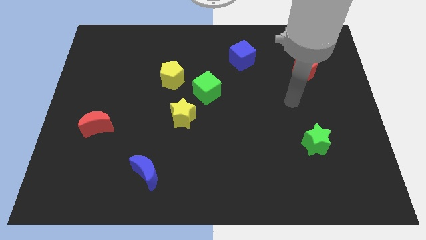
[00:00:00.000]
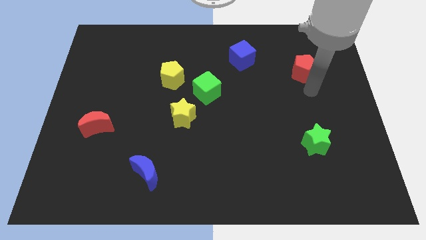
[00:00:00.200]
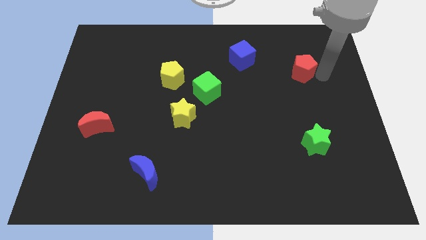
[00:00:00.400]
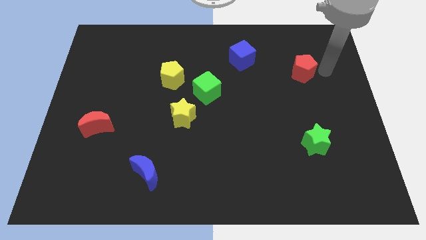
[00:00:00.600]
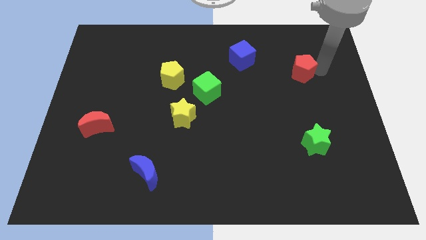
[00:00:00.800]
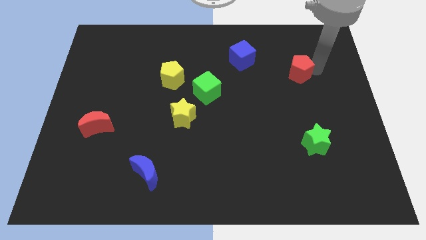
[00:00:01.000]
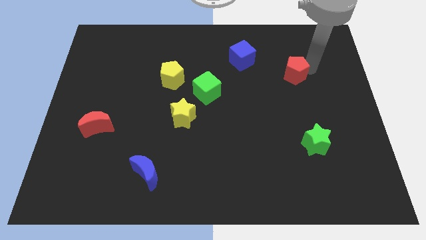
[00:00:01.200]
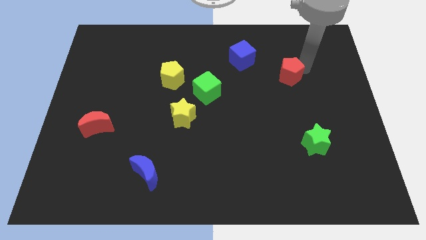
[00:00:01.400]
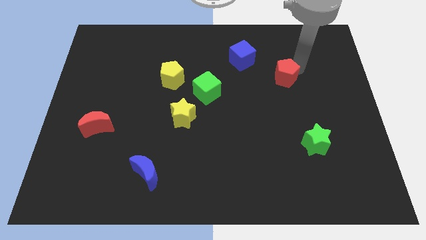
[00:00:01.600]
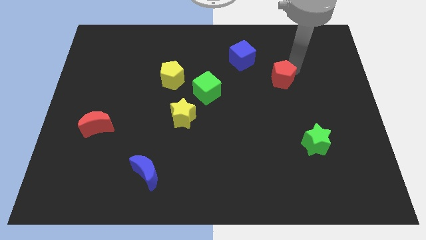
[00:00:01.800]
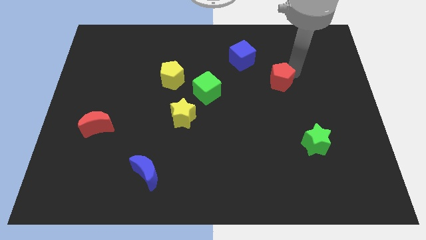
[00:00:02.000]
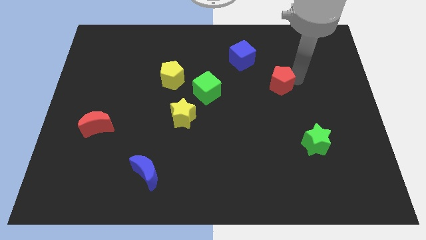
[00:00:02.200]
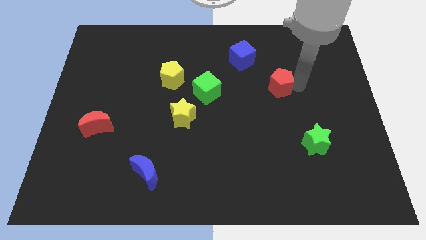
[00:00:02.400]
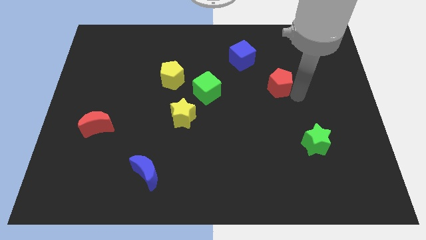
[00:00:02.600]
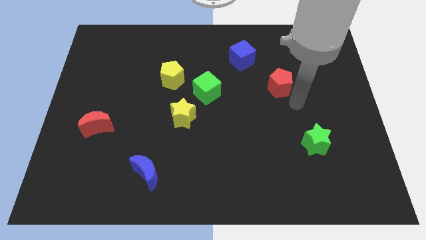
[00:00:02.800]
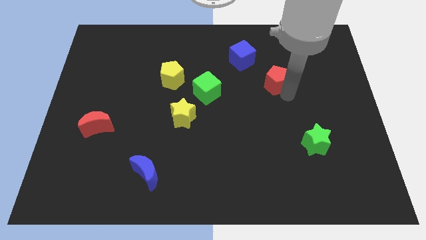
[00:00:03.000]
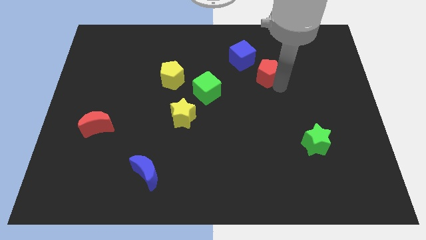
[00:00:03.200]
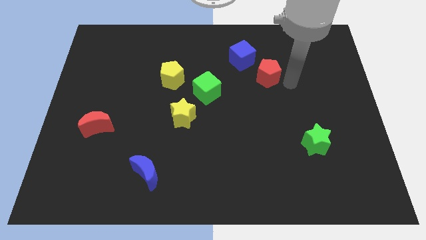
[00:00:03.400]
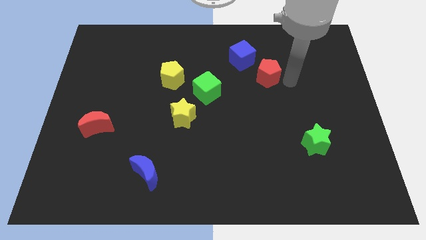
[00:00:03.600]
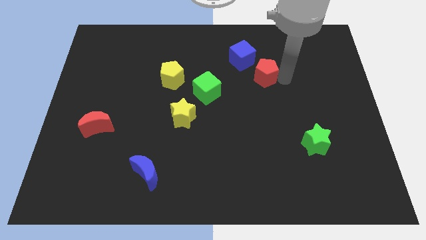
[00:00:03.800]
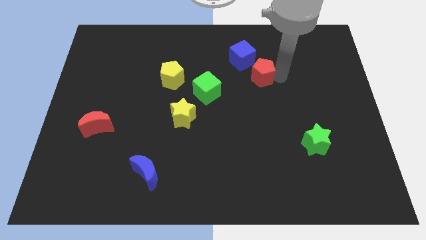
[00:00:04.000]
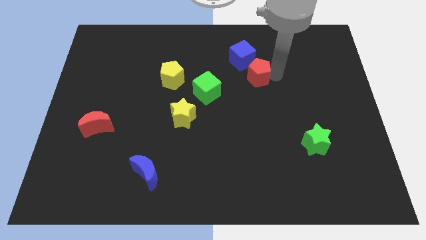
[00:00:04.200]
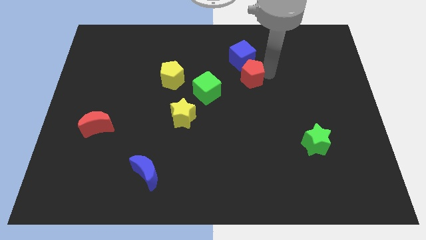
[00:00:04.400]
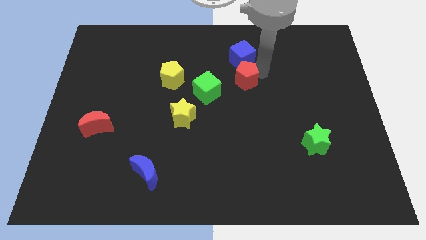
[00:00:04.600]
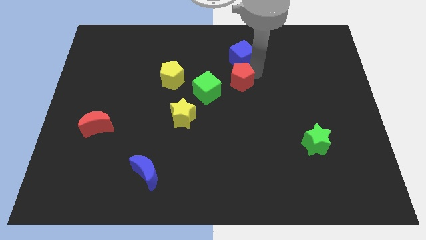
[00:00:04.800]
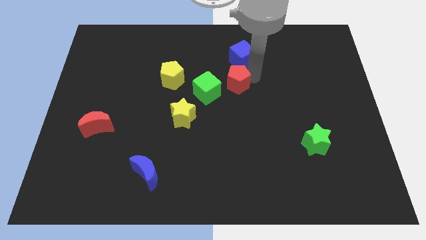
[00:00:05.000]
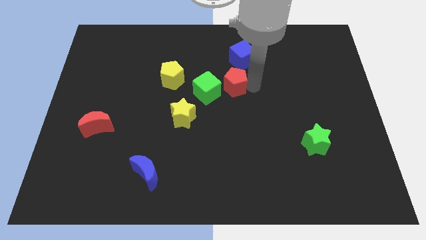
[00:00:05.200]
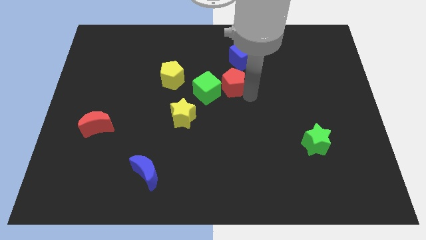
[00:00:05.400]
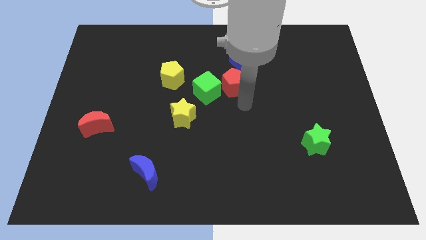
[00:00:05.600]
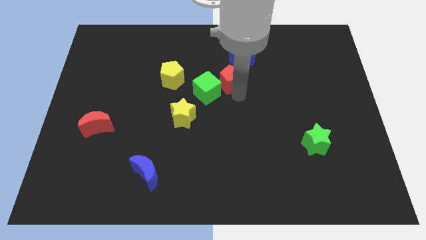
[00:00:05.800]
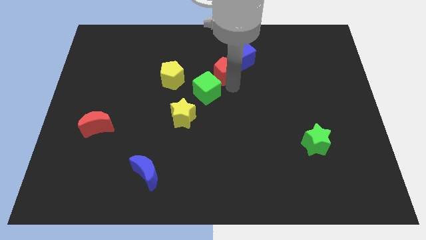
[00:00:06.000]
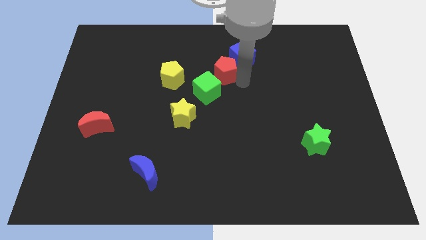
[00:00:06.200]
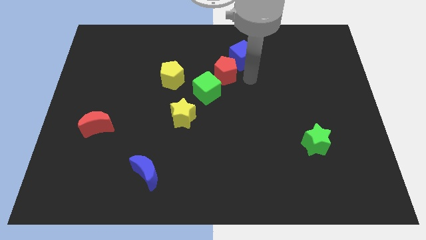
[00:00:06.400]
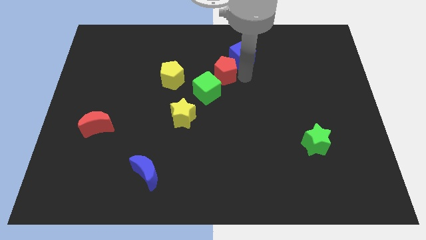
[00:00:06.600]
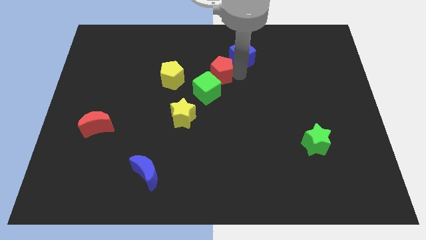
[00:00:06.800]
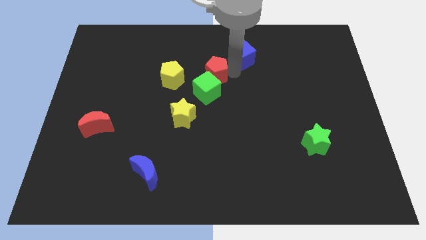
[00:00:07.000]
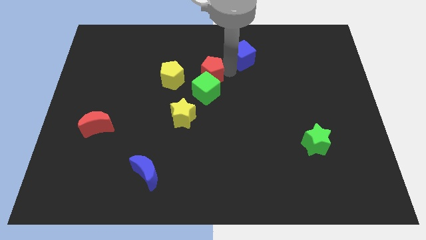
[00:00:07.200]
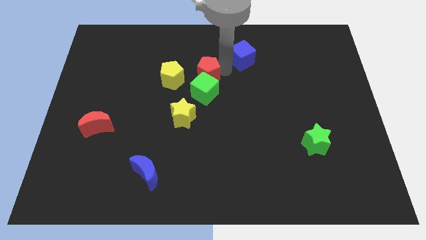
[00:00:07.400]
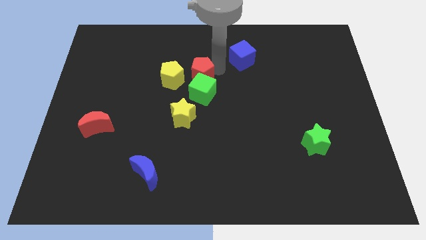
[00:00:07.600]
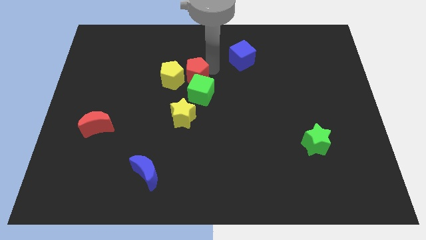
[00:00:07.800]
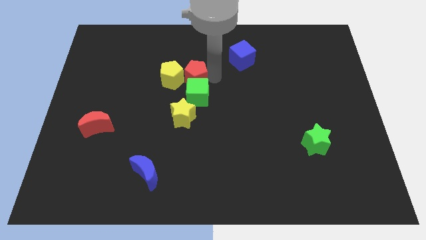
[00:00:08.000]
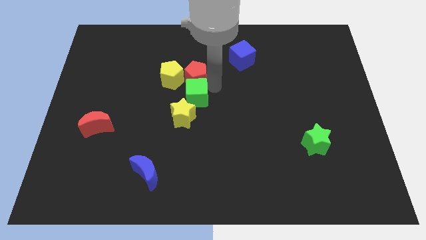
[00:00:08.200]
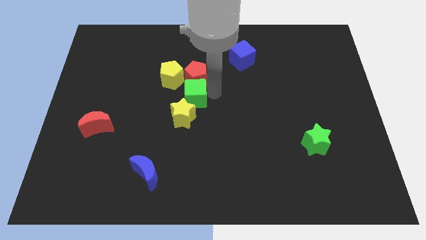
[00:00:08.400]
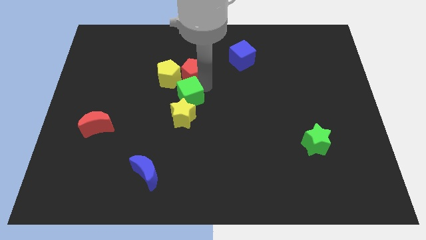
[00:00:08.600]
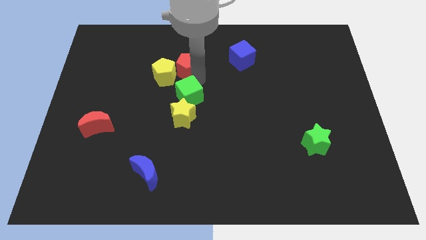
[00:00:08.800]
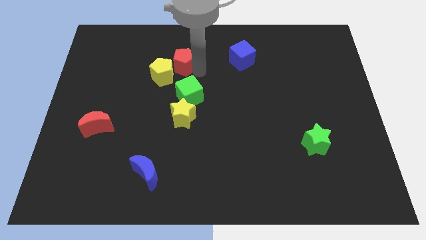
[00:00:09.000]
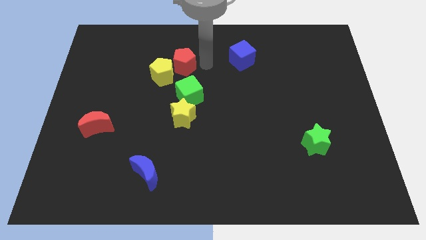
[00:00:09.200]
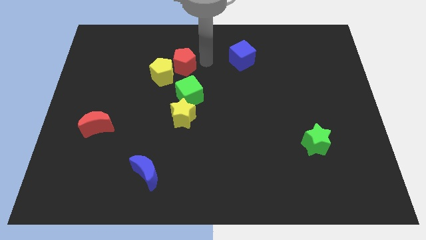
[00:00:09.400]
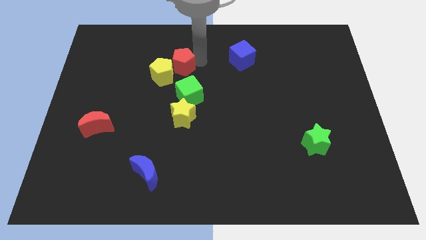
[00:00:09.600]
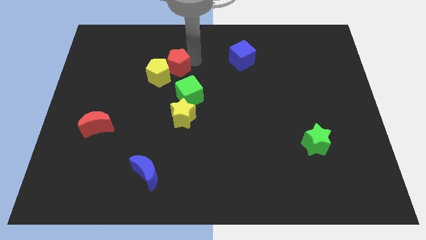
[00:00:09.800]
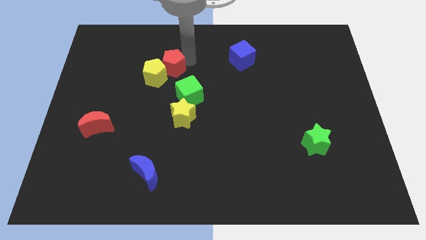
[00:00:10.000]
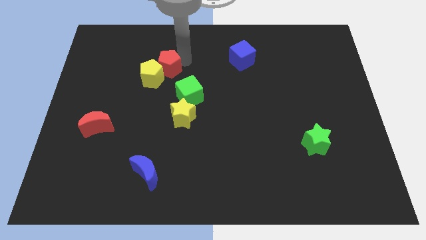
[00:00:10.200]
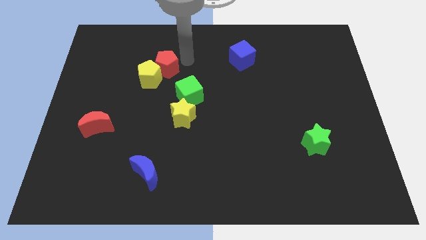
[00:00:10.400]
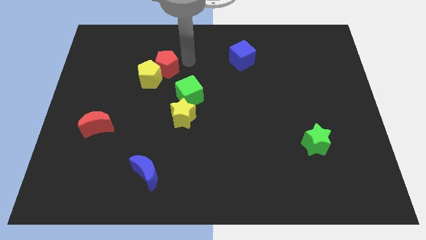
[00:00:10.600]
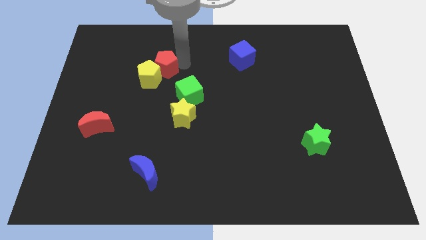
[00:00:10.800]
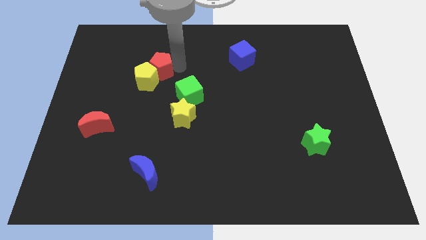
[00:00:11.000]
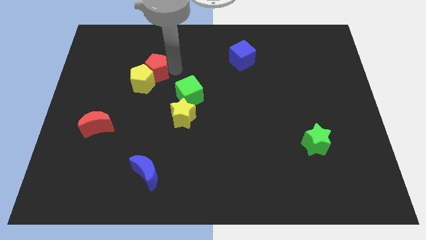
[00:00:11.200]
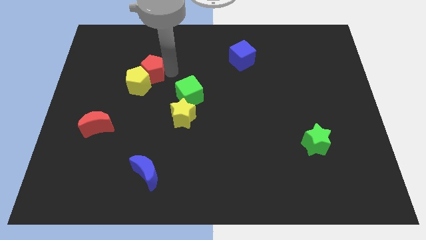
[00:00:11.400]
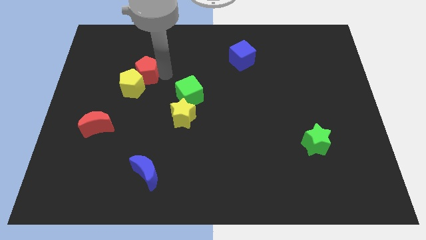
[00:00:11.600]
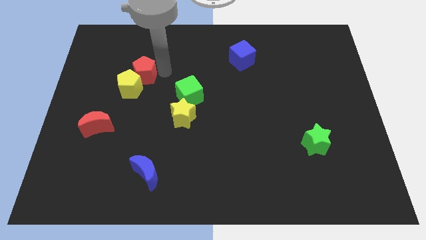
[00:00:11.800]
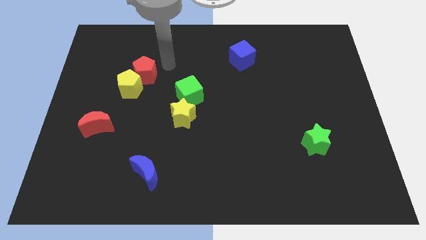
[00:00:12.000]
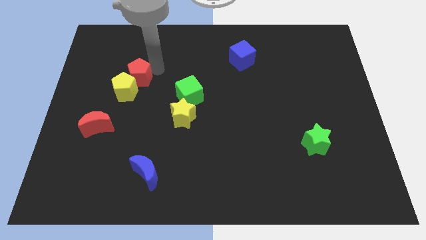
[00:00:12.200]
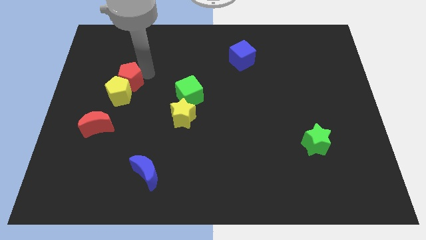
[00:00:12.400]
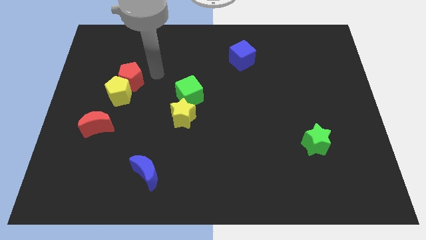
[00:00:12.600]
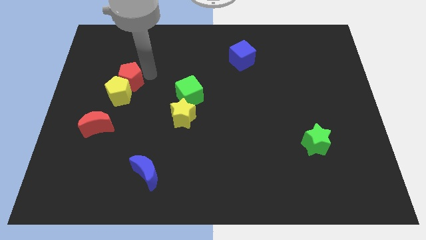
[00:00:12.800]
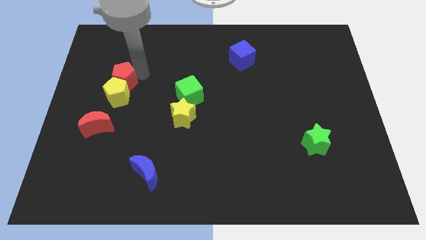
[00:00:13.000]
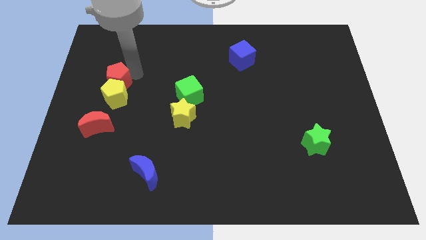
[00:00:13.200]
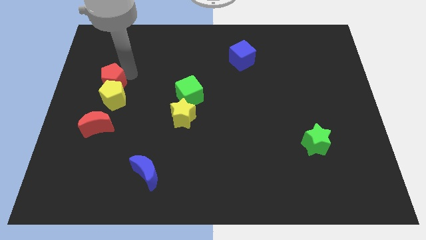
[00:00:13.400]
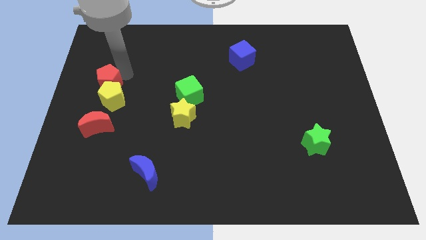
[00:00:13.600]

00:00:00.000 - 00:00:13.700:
push the red pentagon to the left side
